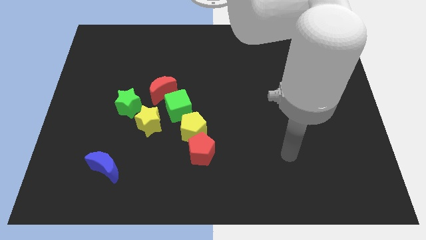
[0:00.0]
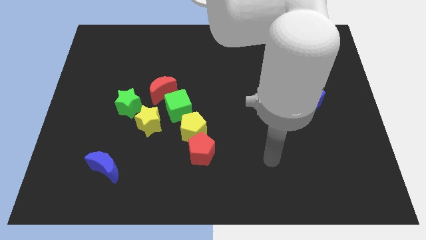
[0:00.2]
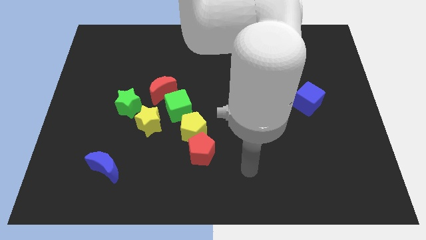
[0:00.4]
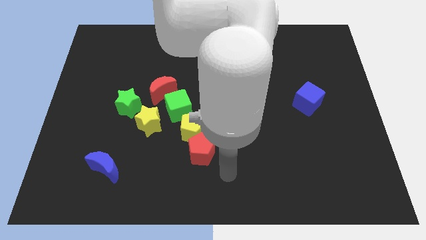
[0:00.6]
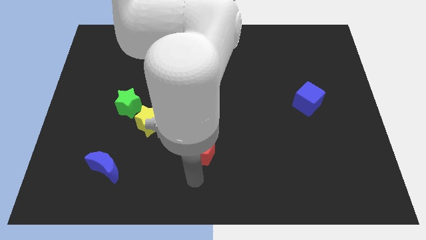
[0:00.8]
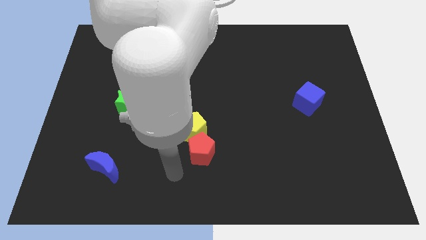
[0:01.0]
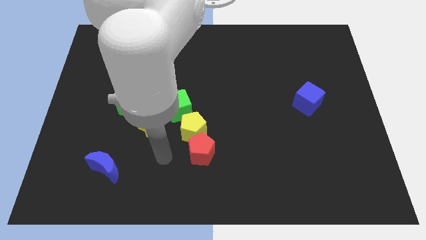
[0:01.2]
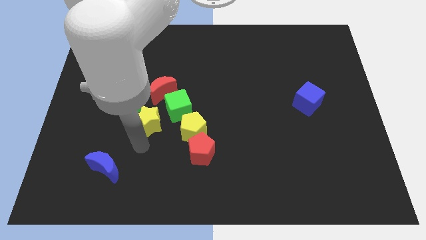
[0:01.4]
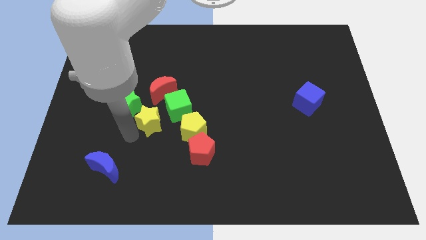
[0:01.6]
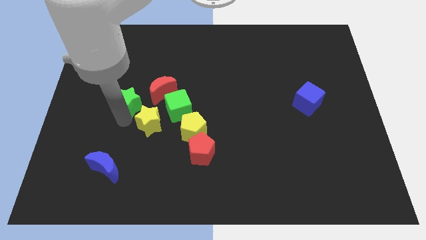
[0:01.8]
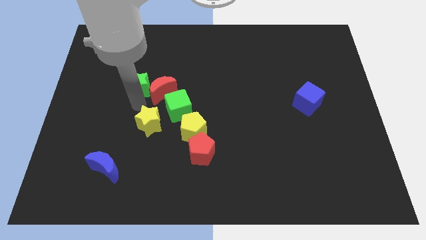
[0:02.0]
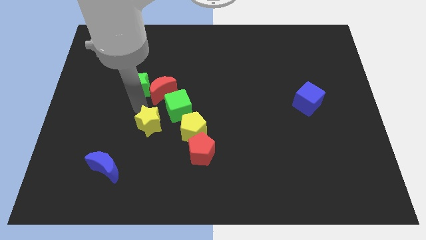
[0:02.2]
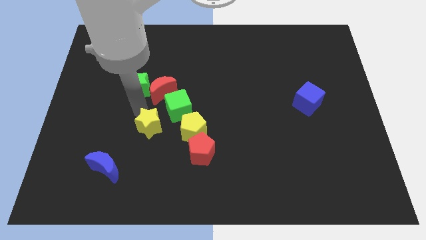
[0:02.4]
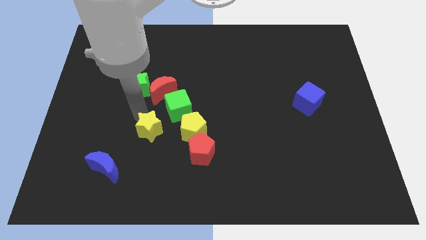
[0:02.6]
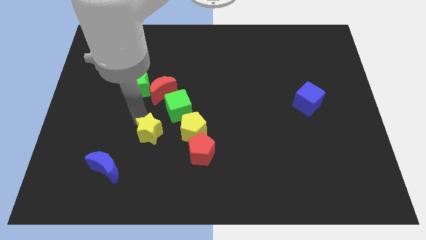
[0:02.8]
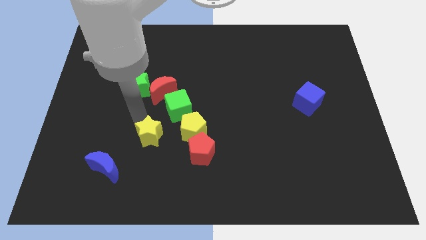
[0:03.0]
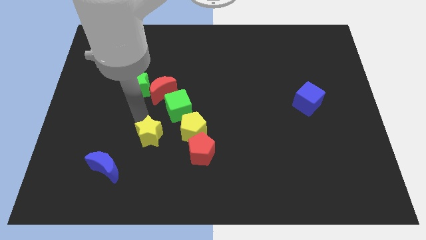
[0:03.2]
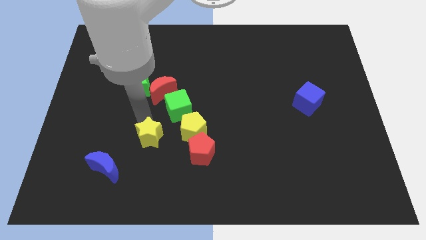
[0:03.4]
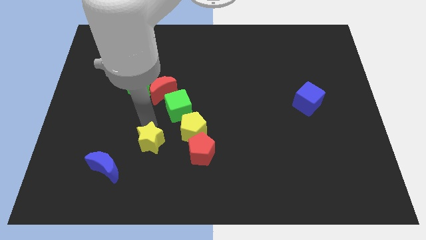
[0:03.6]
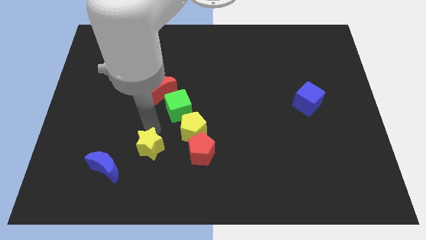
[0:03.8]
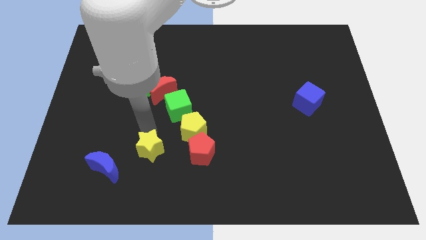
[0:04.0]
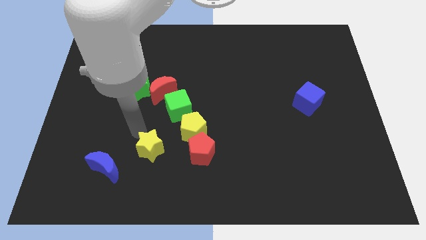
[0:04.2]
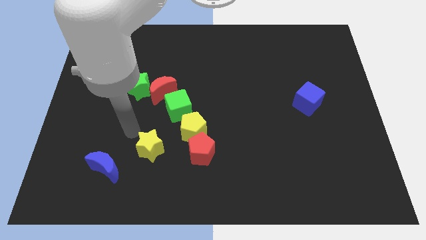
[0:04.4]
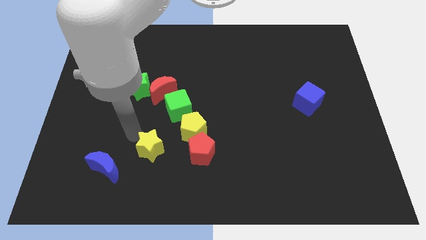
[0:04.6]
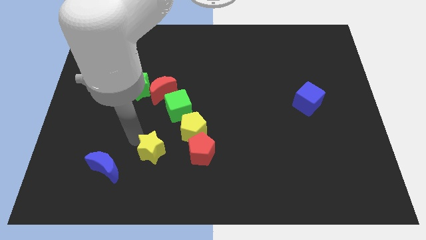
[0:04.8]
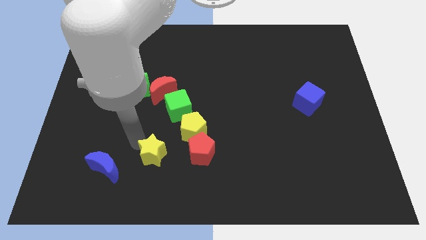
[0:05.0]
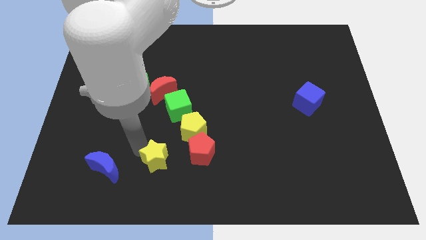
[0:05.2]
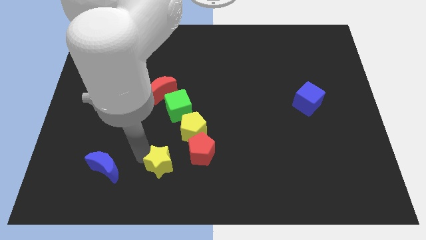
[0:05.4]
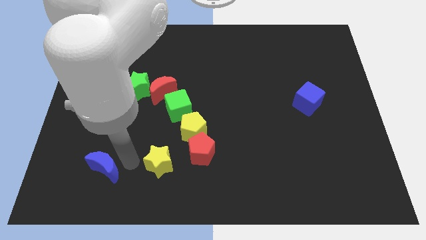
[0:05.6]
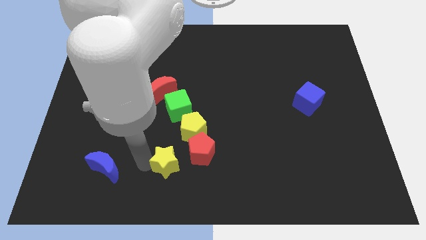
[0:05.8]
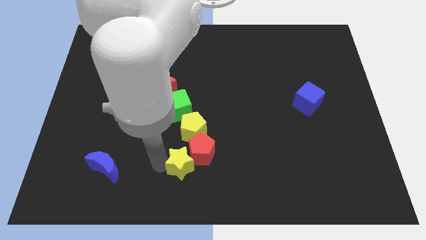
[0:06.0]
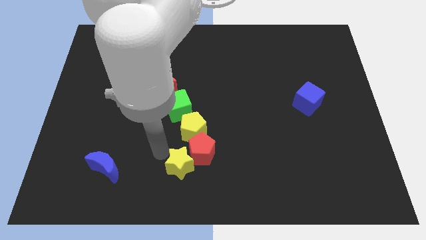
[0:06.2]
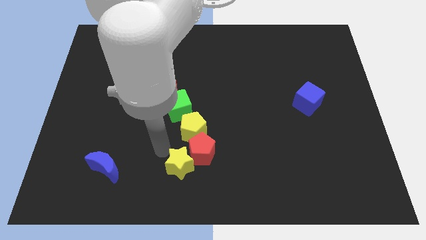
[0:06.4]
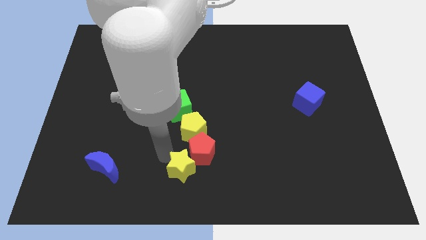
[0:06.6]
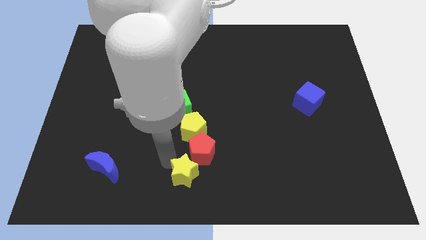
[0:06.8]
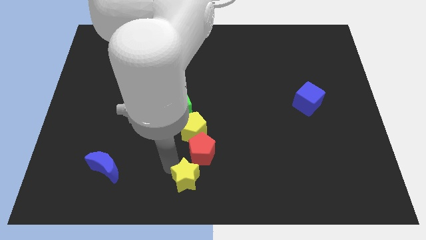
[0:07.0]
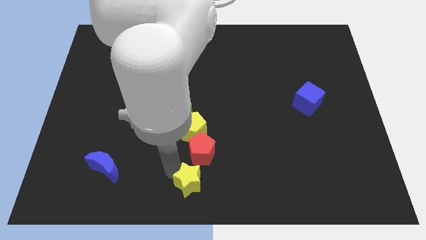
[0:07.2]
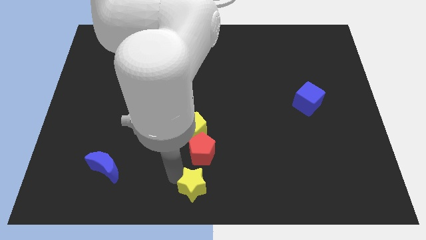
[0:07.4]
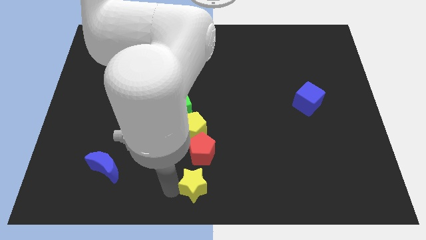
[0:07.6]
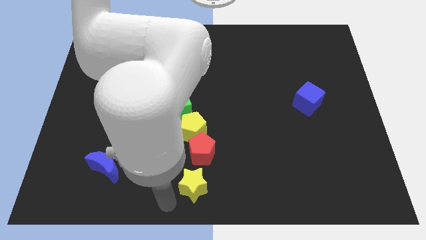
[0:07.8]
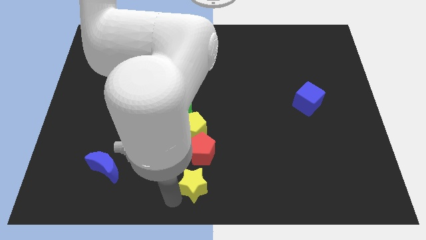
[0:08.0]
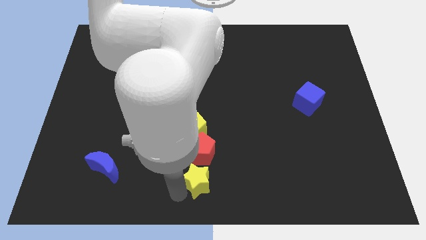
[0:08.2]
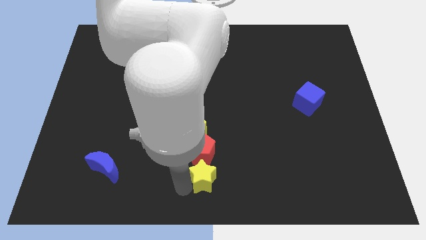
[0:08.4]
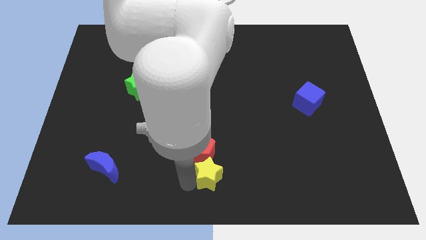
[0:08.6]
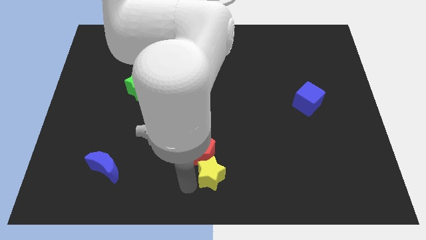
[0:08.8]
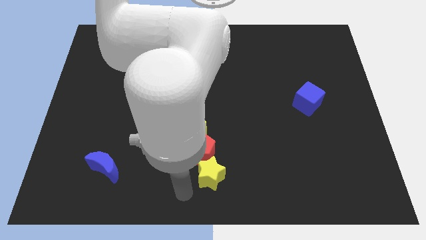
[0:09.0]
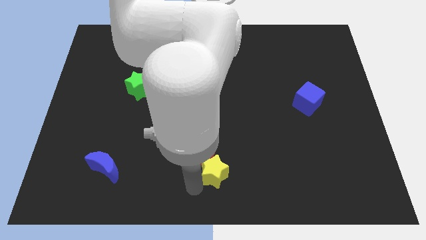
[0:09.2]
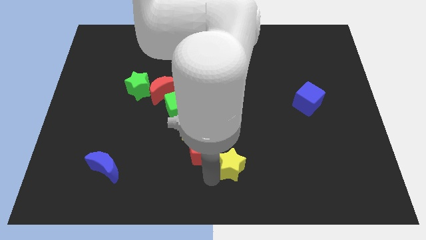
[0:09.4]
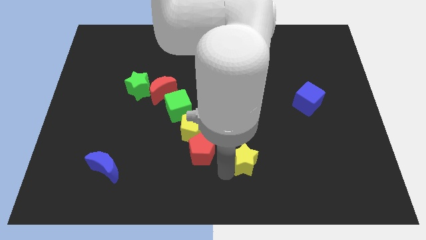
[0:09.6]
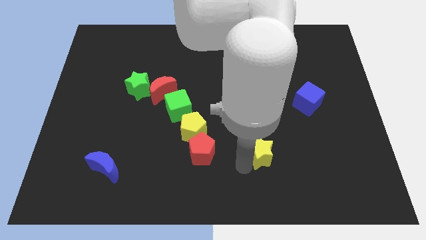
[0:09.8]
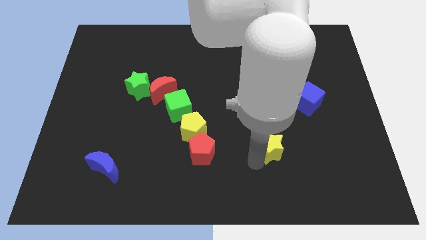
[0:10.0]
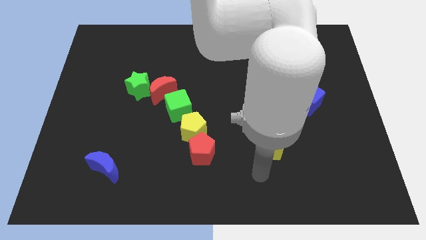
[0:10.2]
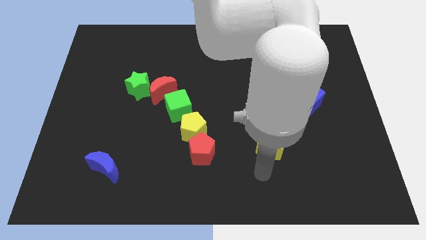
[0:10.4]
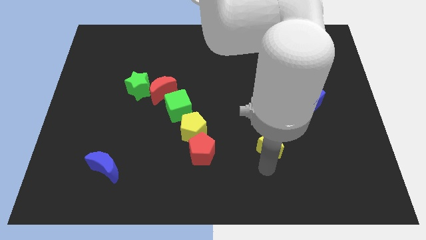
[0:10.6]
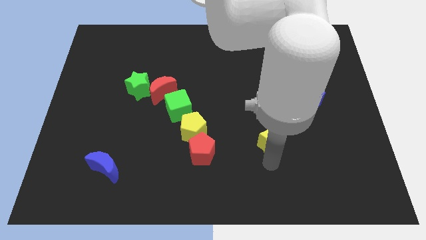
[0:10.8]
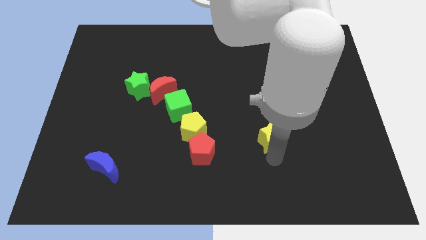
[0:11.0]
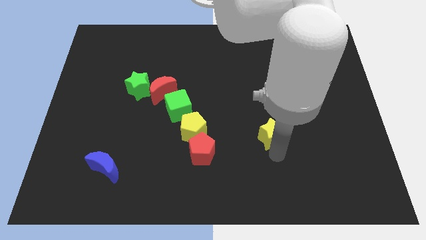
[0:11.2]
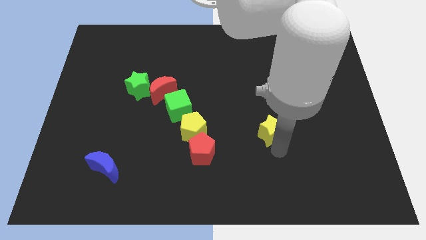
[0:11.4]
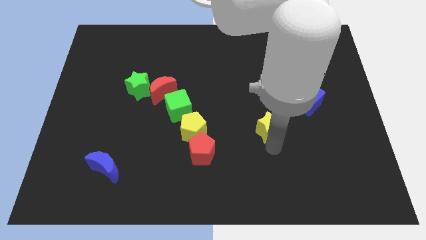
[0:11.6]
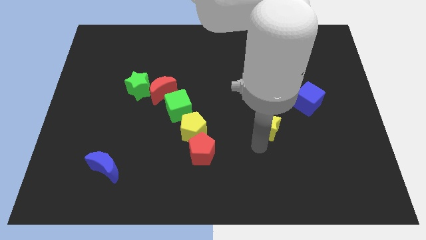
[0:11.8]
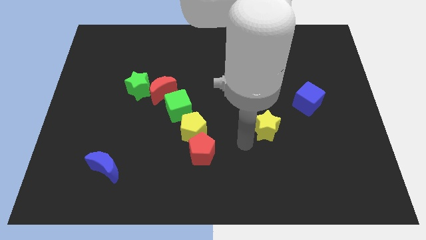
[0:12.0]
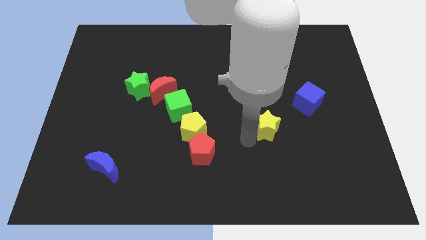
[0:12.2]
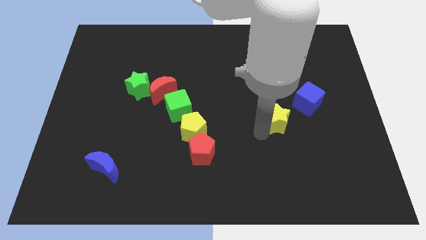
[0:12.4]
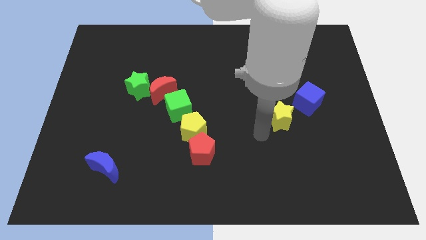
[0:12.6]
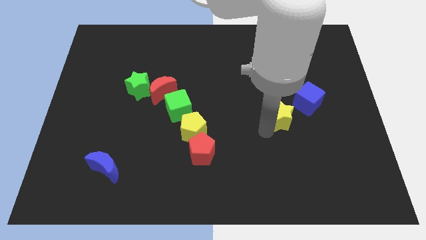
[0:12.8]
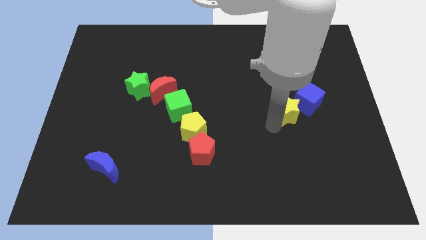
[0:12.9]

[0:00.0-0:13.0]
push the yellow star towards the blue cube

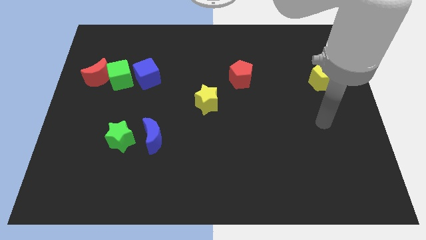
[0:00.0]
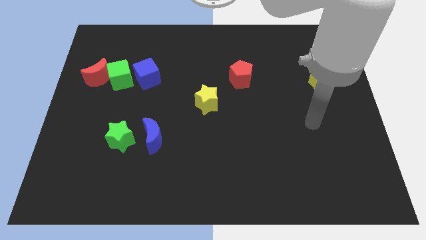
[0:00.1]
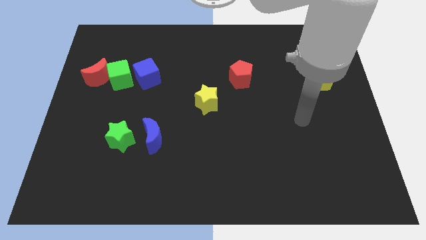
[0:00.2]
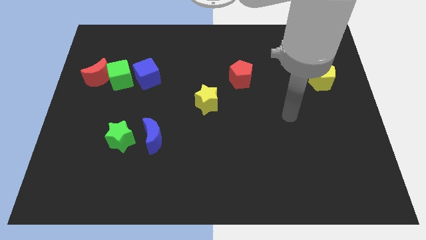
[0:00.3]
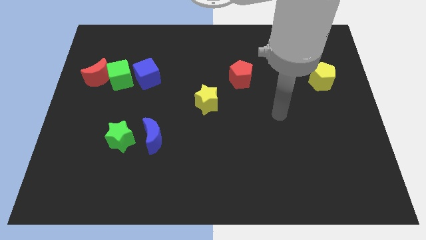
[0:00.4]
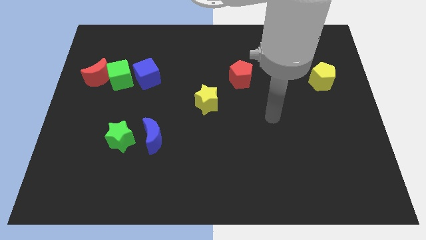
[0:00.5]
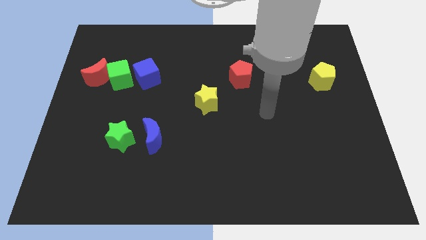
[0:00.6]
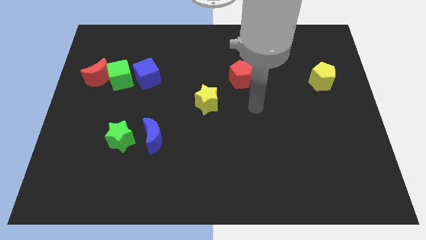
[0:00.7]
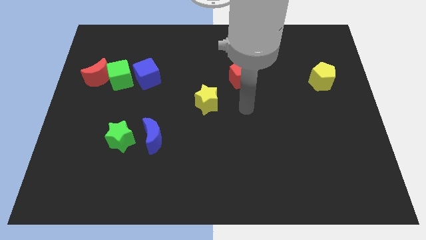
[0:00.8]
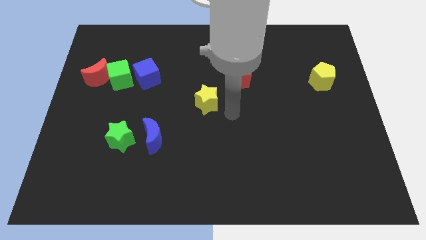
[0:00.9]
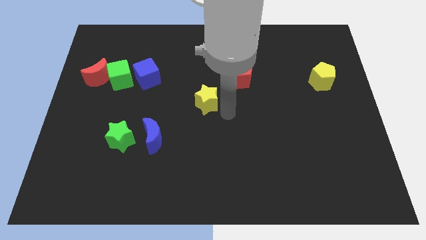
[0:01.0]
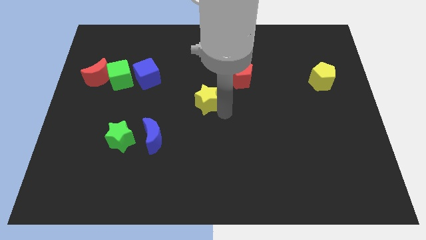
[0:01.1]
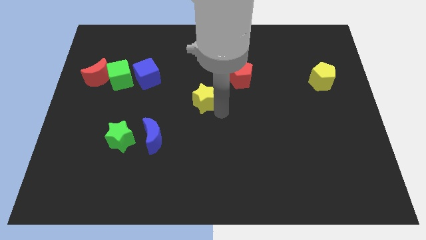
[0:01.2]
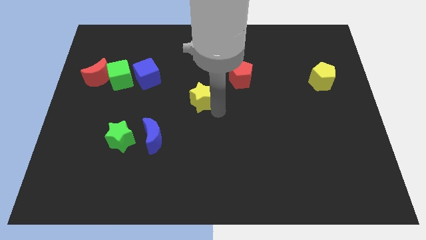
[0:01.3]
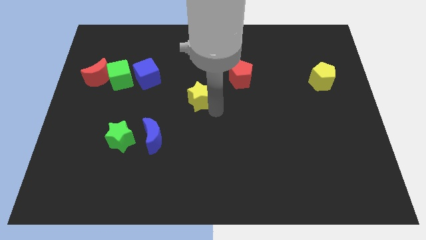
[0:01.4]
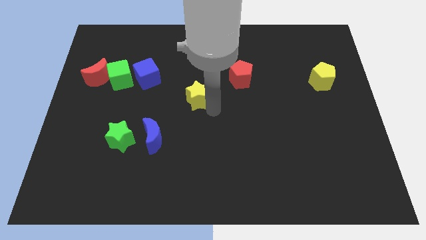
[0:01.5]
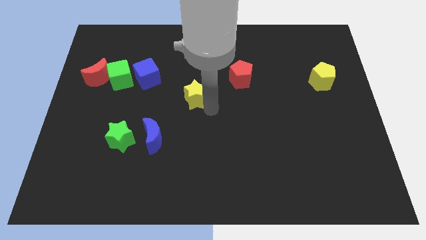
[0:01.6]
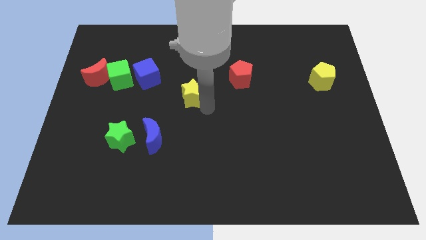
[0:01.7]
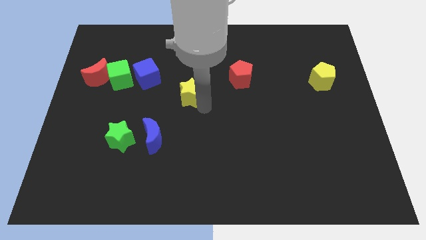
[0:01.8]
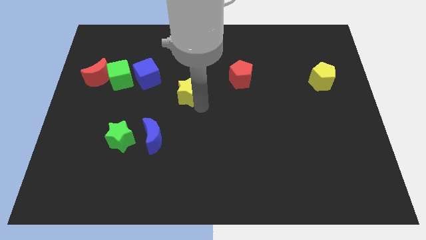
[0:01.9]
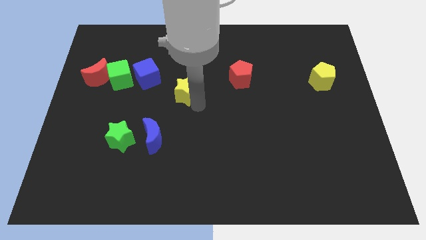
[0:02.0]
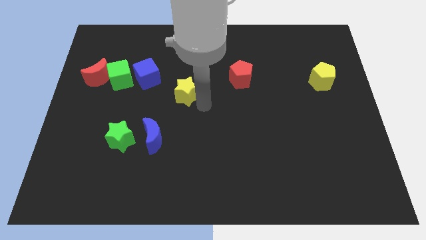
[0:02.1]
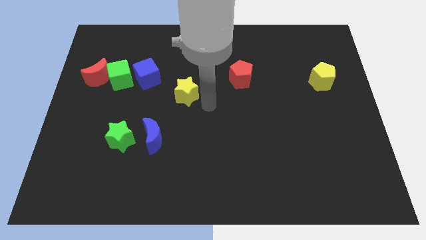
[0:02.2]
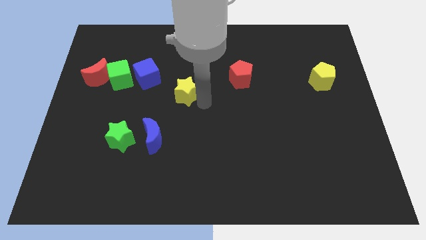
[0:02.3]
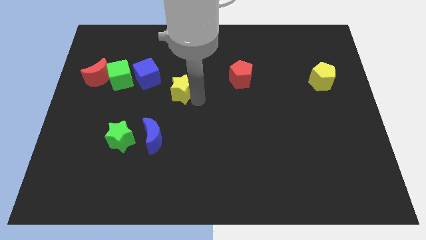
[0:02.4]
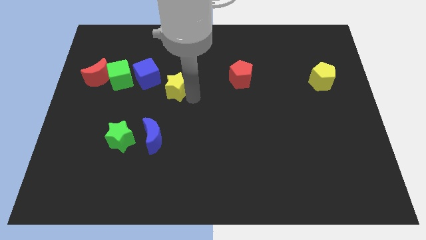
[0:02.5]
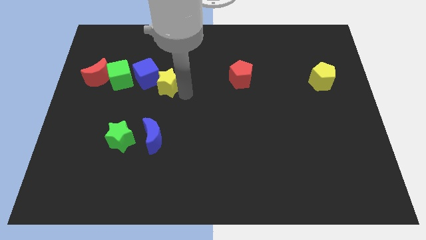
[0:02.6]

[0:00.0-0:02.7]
put the yellow star next to the blue cube
